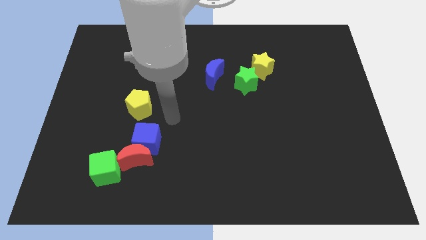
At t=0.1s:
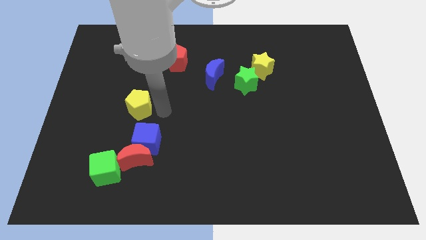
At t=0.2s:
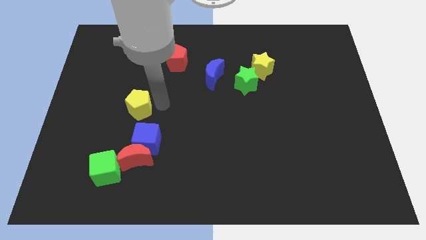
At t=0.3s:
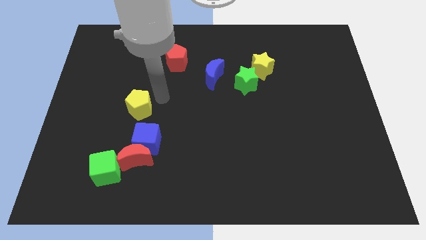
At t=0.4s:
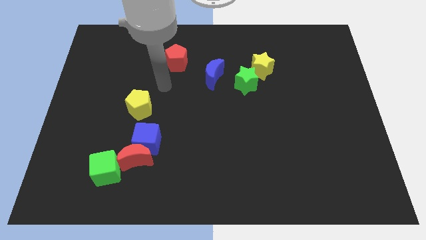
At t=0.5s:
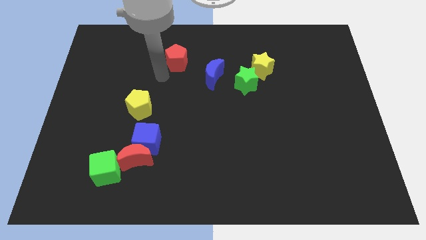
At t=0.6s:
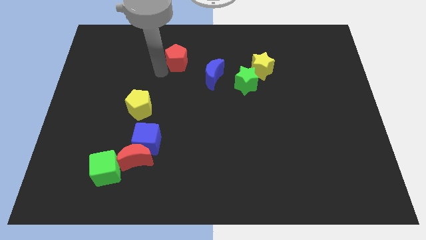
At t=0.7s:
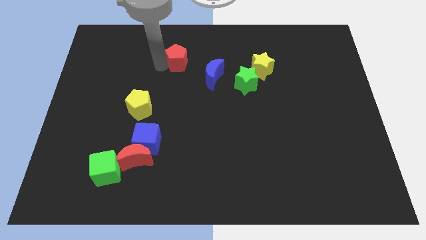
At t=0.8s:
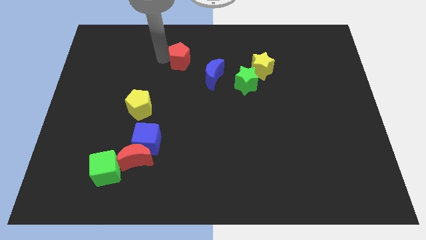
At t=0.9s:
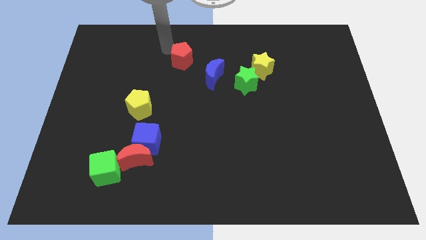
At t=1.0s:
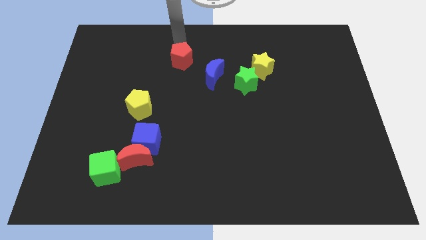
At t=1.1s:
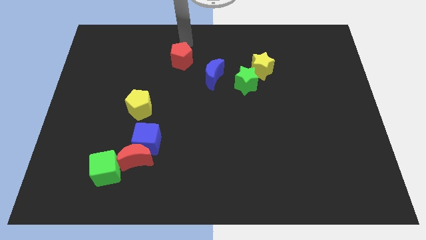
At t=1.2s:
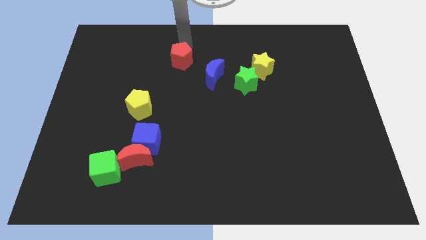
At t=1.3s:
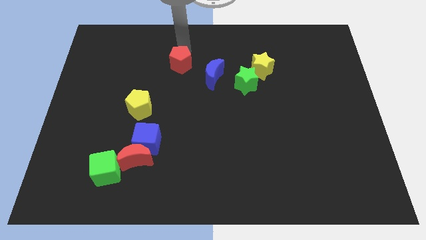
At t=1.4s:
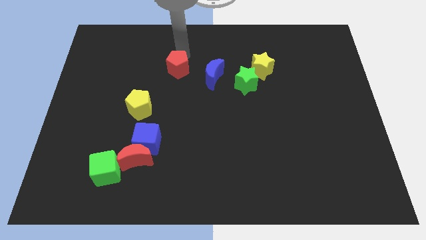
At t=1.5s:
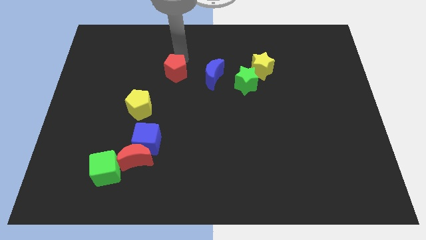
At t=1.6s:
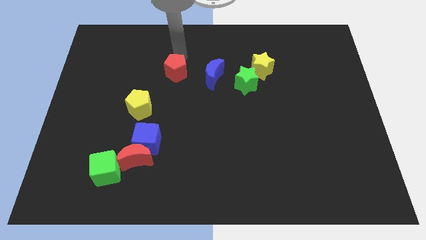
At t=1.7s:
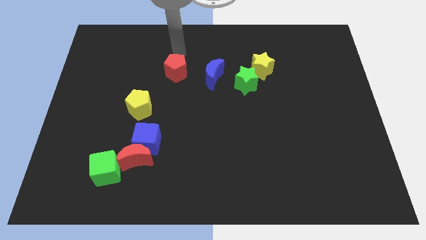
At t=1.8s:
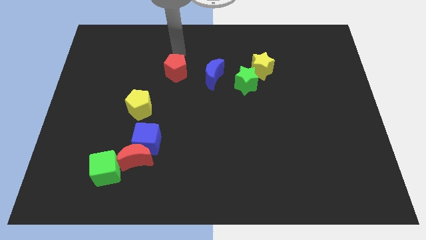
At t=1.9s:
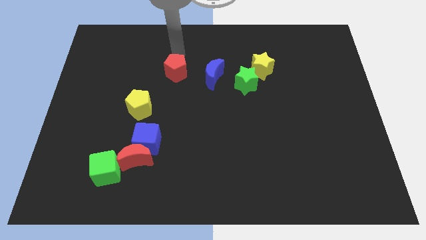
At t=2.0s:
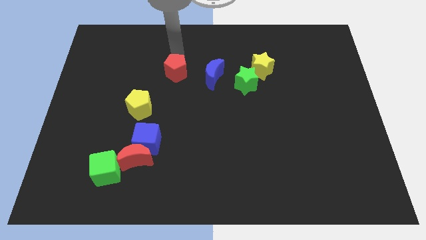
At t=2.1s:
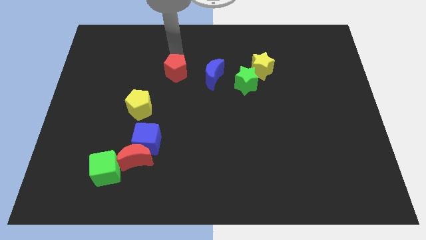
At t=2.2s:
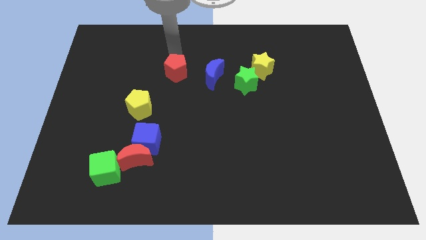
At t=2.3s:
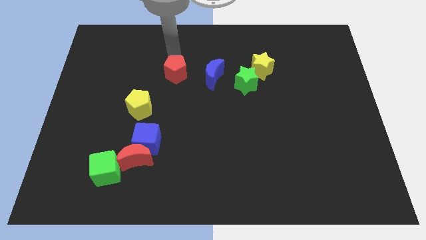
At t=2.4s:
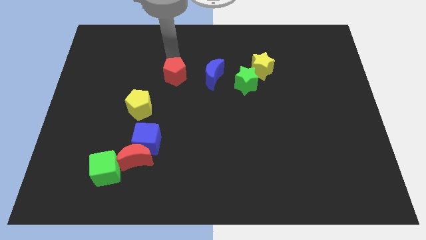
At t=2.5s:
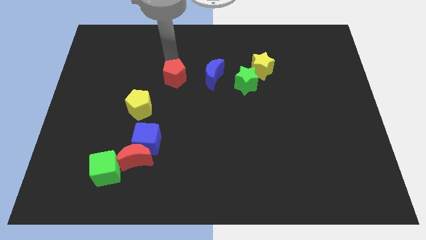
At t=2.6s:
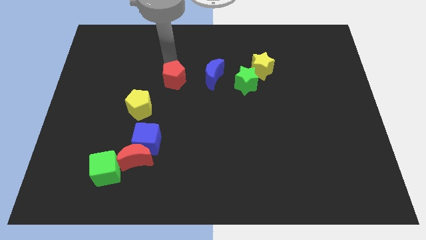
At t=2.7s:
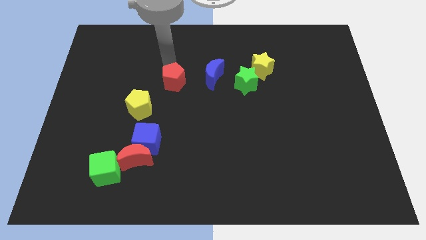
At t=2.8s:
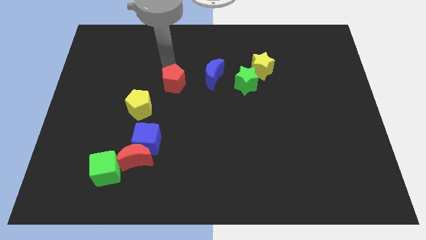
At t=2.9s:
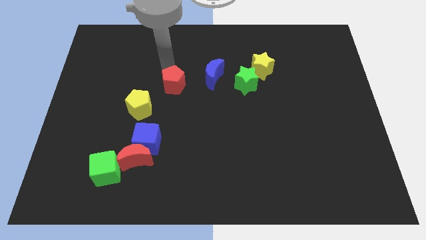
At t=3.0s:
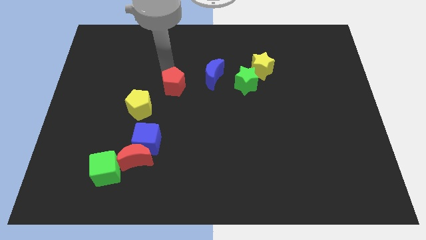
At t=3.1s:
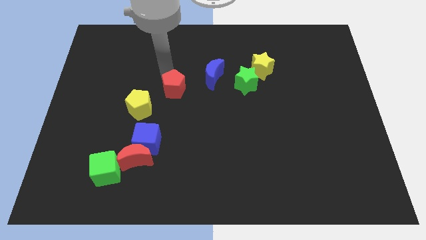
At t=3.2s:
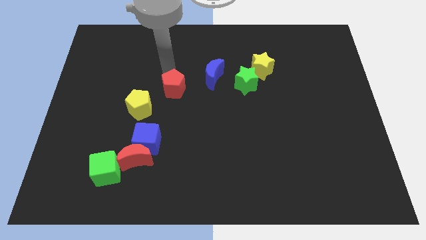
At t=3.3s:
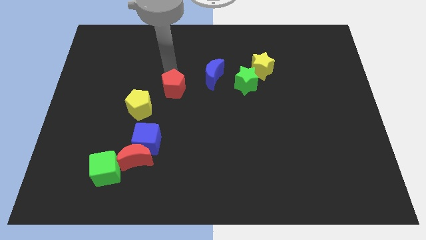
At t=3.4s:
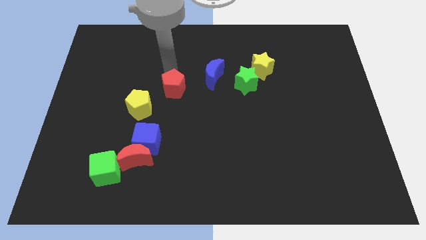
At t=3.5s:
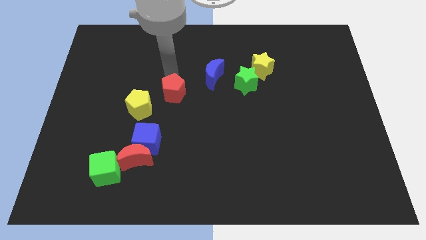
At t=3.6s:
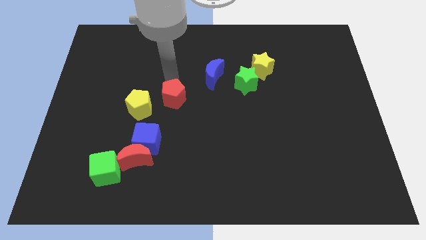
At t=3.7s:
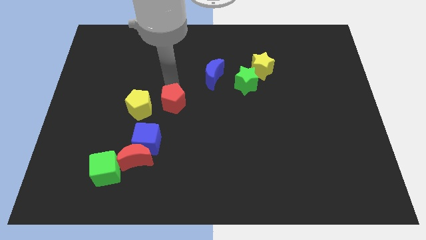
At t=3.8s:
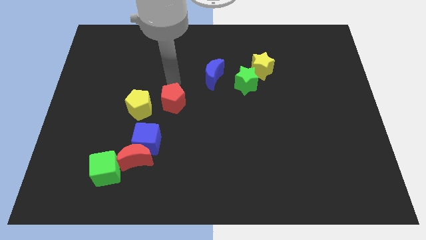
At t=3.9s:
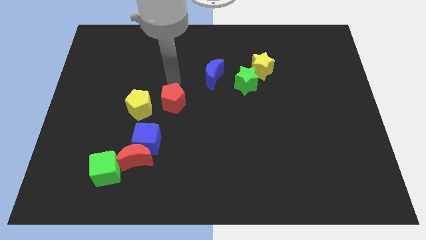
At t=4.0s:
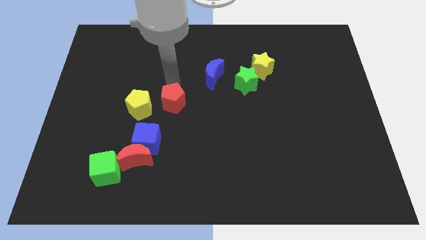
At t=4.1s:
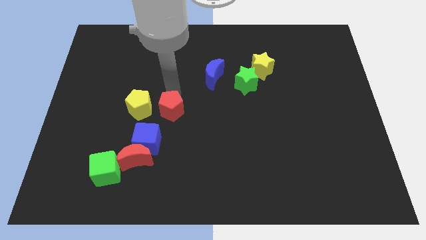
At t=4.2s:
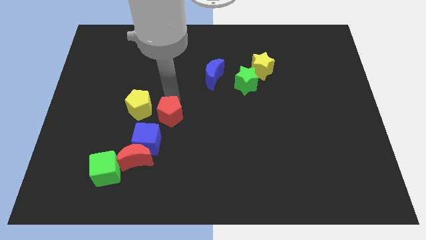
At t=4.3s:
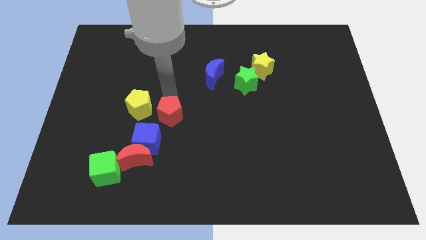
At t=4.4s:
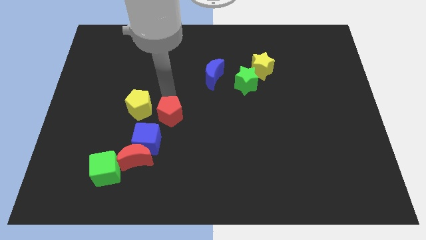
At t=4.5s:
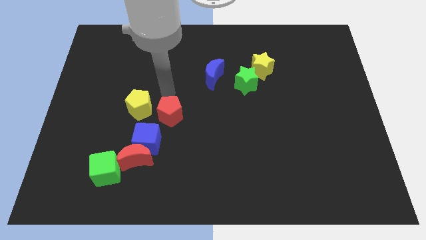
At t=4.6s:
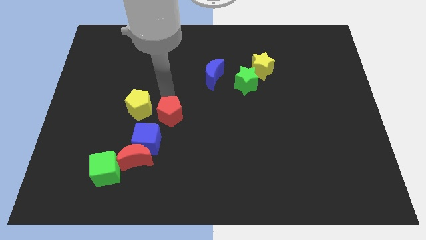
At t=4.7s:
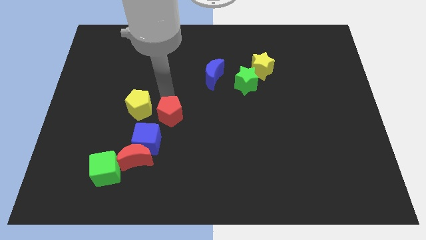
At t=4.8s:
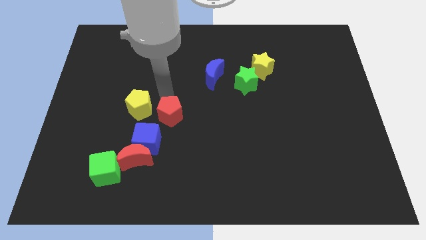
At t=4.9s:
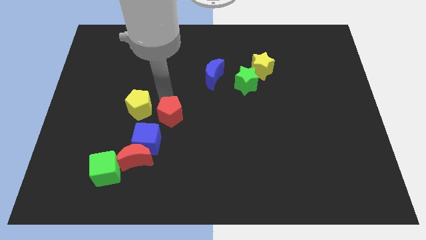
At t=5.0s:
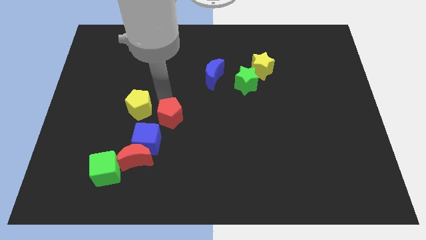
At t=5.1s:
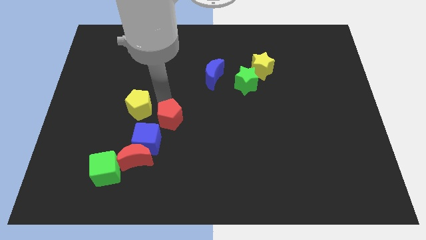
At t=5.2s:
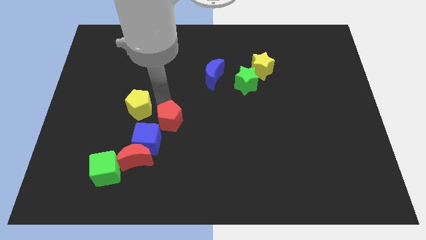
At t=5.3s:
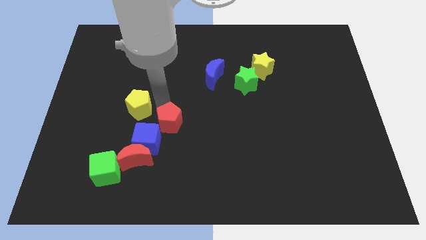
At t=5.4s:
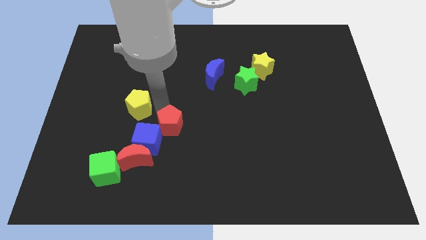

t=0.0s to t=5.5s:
move the red pentagon down

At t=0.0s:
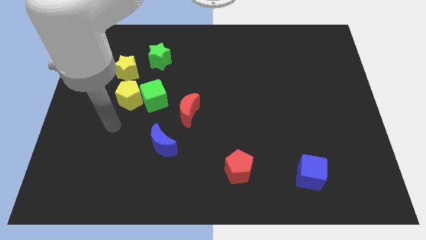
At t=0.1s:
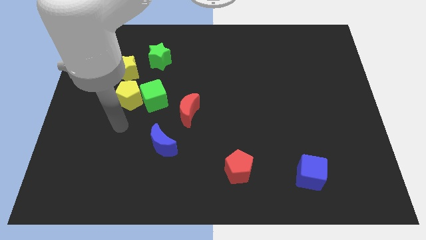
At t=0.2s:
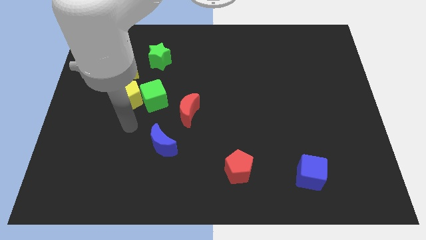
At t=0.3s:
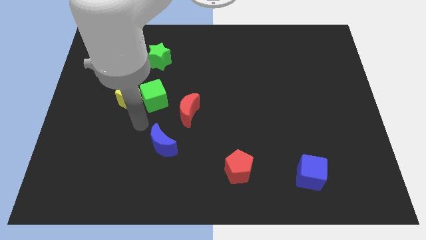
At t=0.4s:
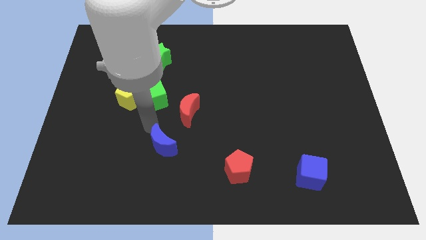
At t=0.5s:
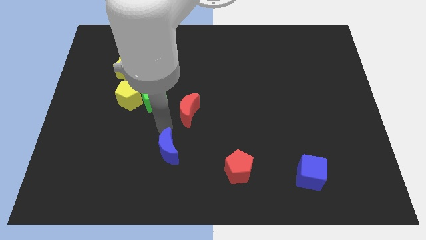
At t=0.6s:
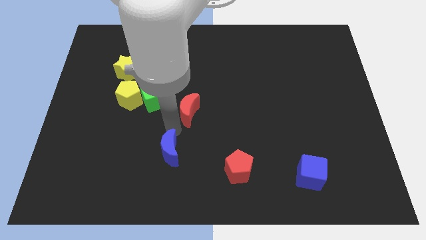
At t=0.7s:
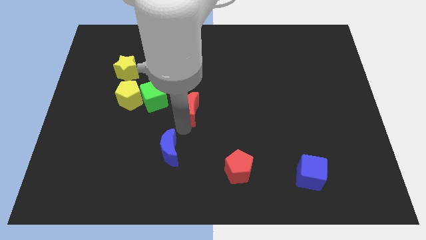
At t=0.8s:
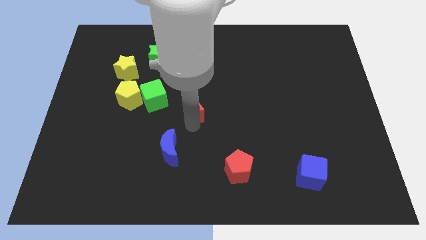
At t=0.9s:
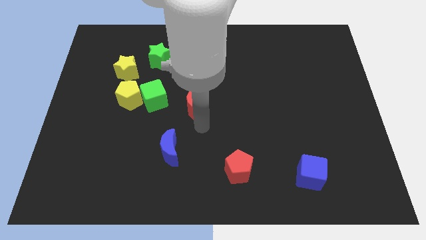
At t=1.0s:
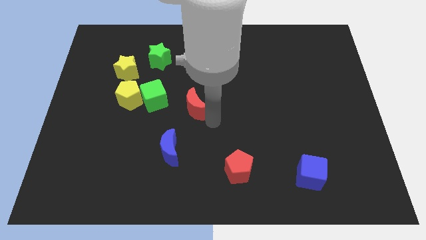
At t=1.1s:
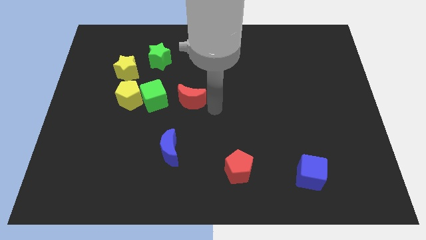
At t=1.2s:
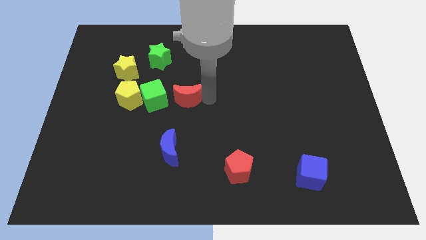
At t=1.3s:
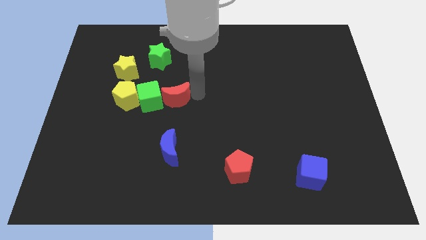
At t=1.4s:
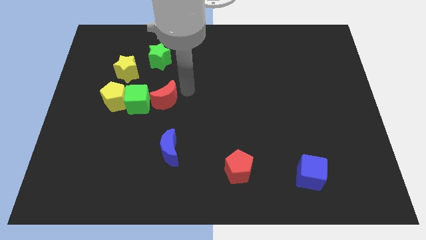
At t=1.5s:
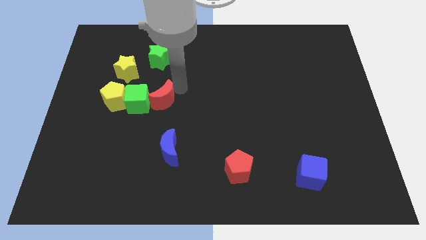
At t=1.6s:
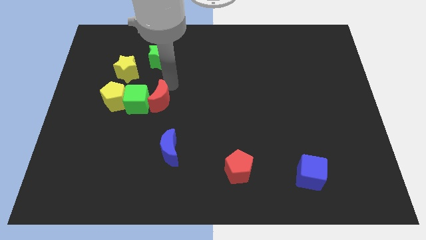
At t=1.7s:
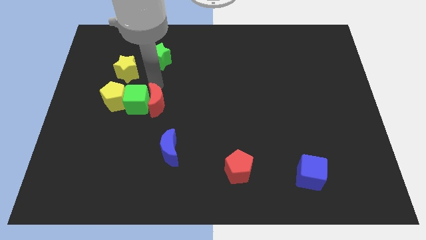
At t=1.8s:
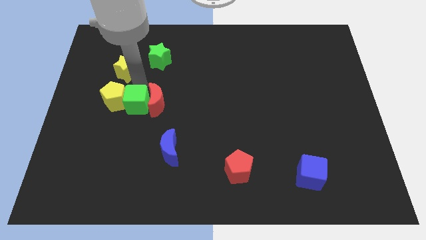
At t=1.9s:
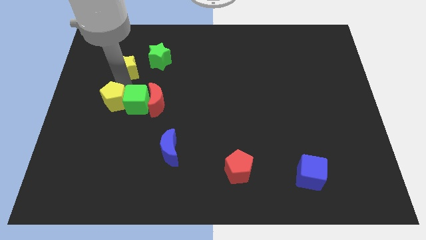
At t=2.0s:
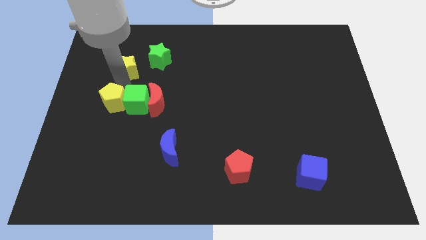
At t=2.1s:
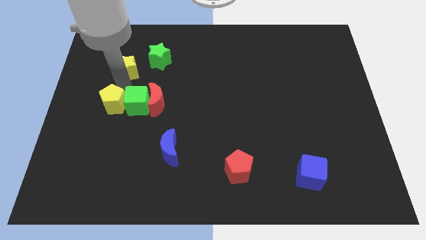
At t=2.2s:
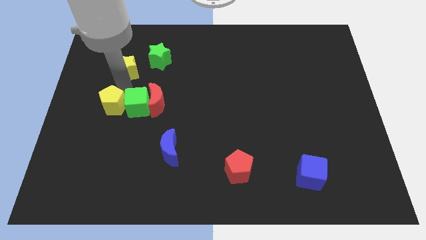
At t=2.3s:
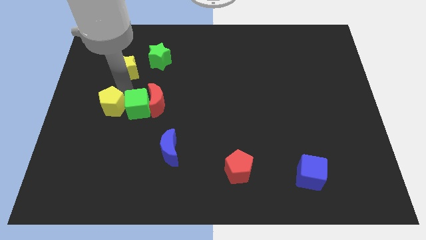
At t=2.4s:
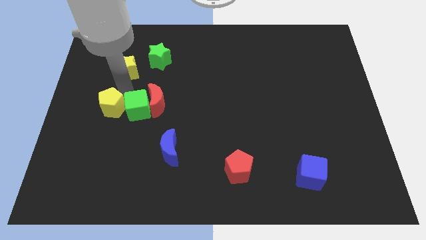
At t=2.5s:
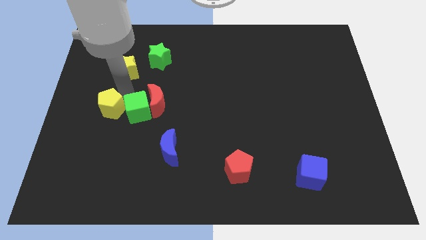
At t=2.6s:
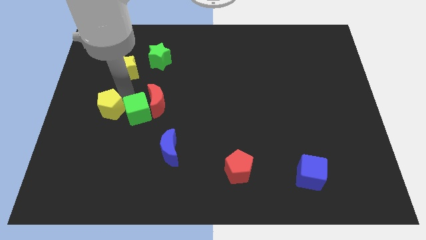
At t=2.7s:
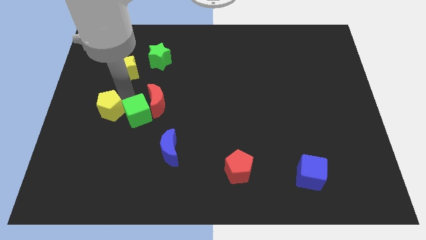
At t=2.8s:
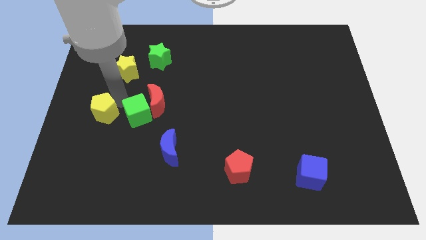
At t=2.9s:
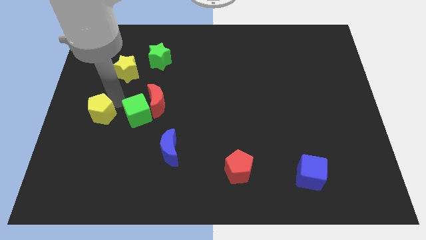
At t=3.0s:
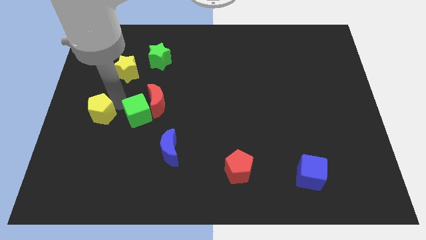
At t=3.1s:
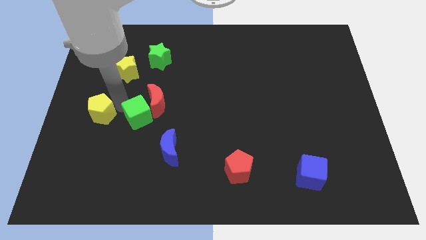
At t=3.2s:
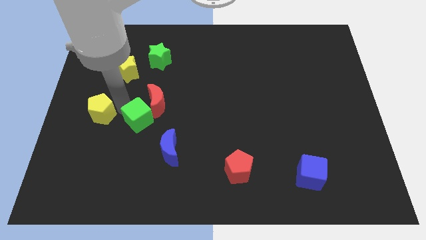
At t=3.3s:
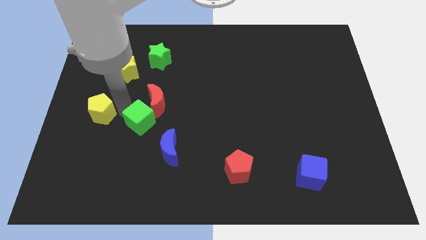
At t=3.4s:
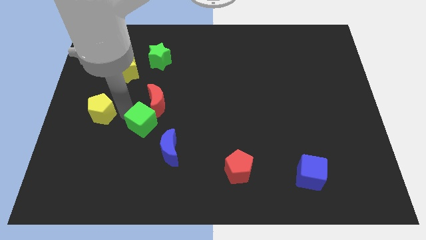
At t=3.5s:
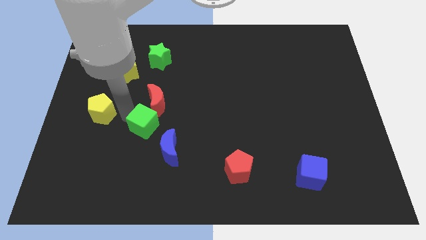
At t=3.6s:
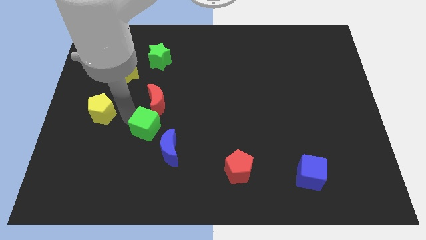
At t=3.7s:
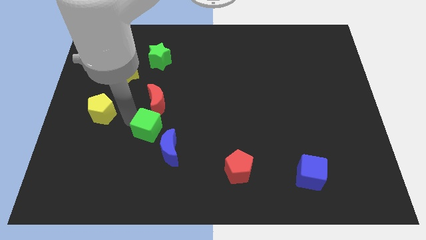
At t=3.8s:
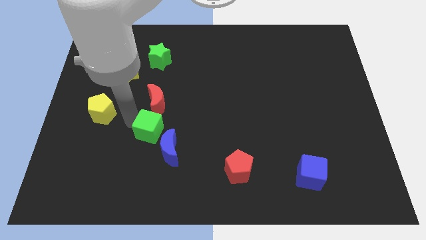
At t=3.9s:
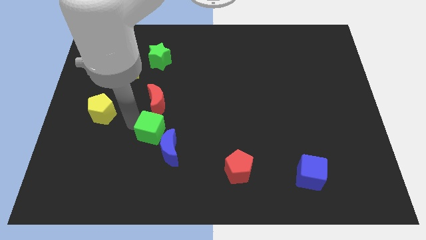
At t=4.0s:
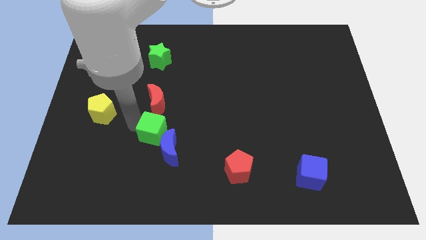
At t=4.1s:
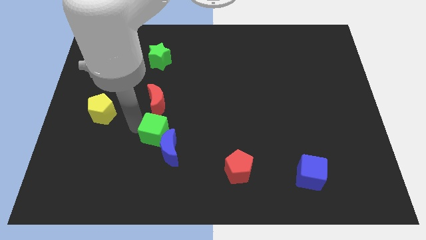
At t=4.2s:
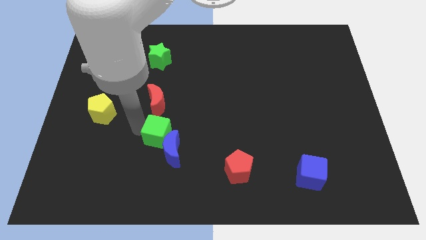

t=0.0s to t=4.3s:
slightly slide the green cube diagonally downwards and to the right
